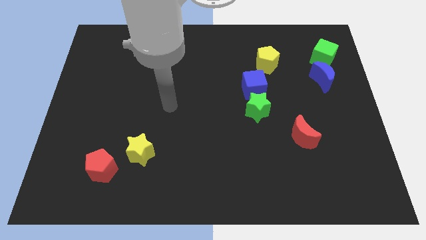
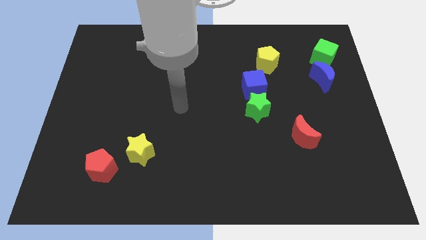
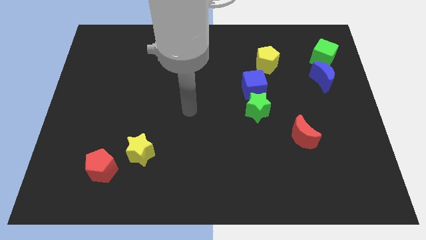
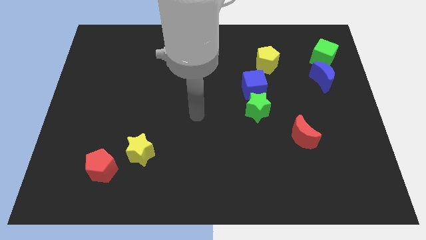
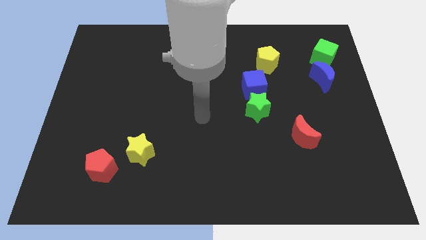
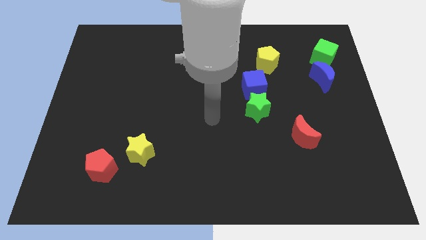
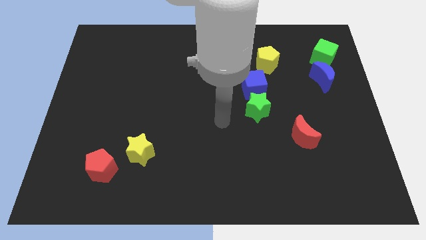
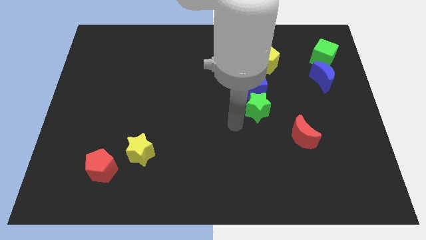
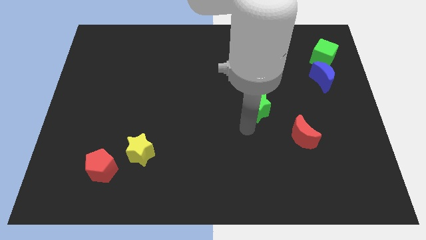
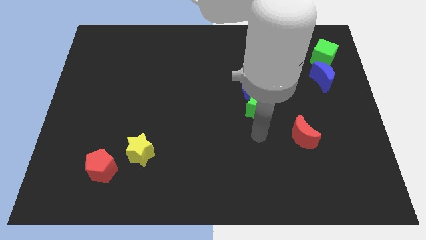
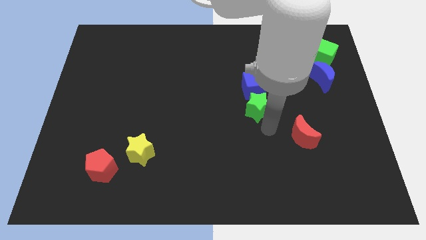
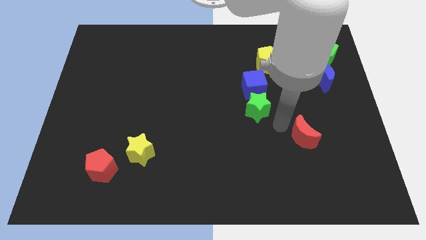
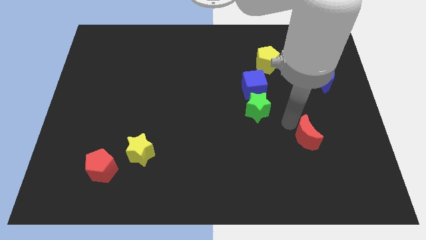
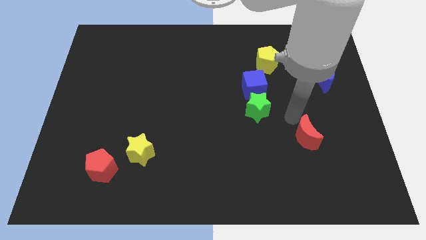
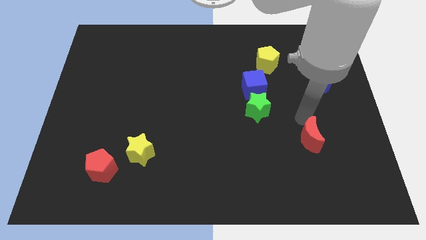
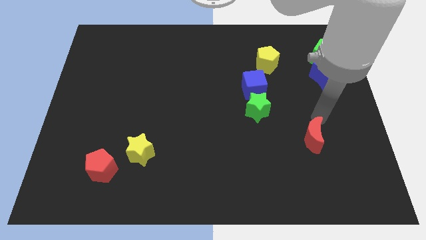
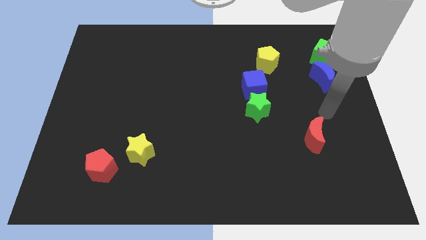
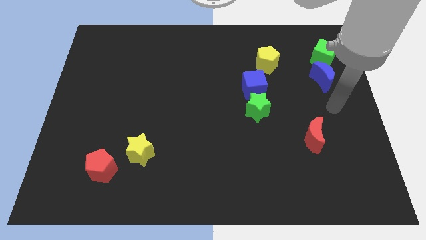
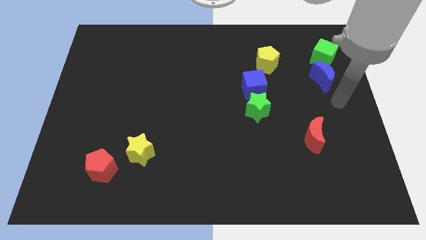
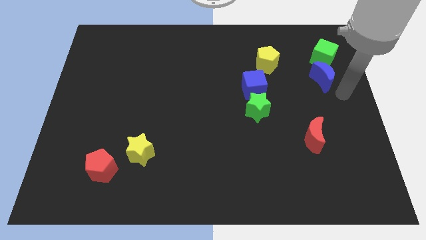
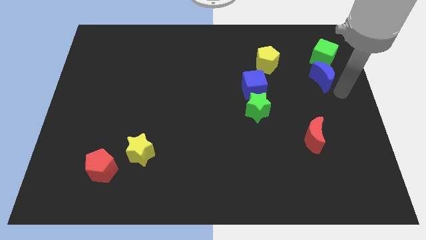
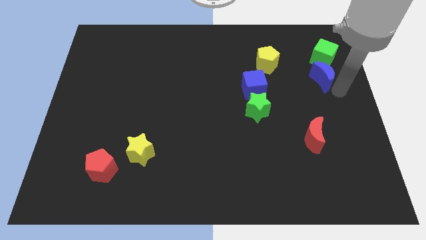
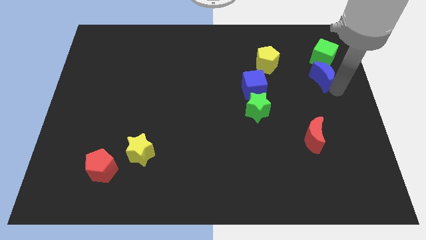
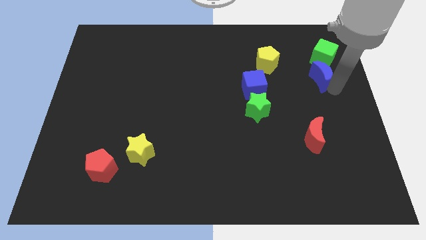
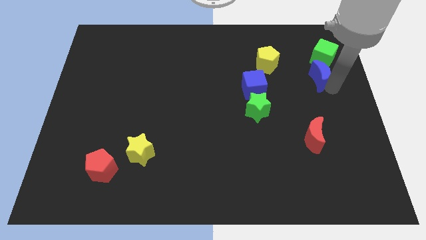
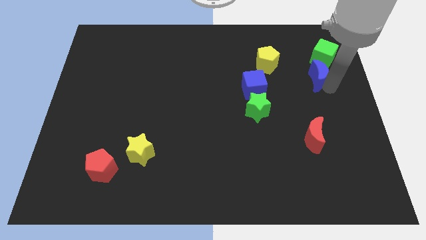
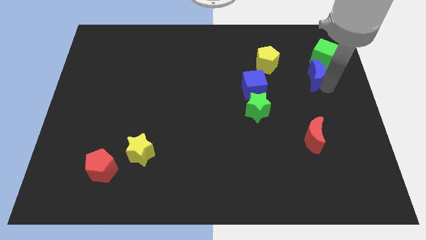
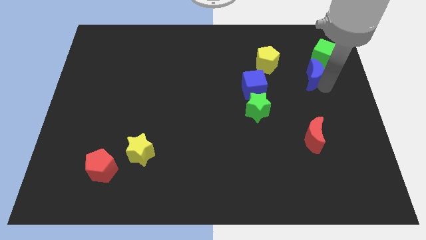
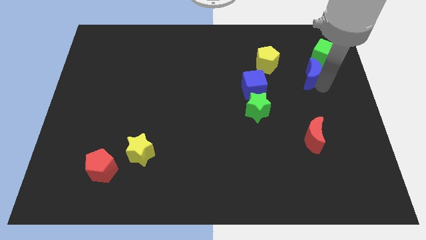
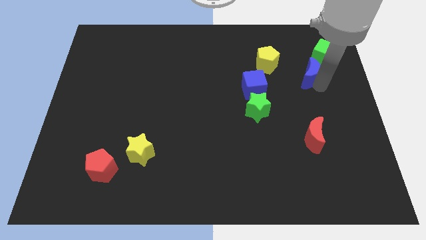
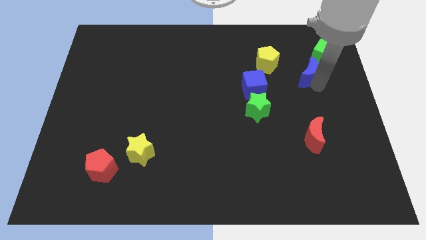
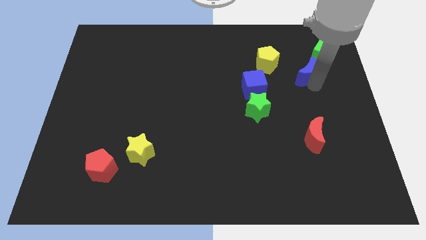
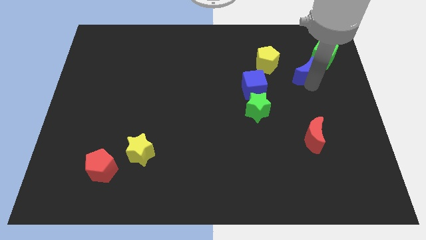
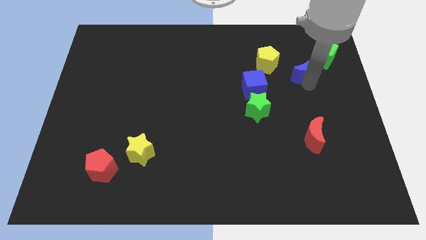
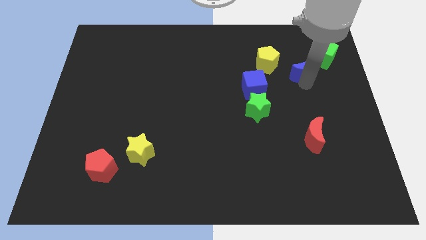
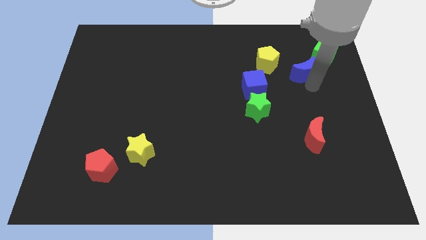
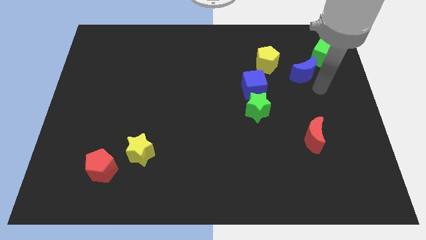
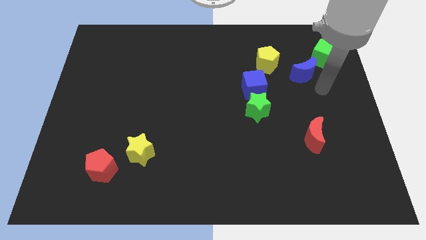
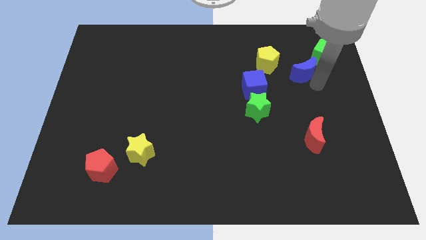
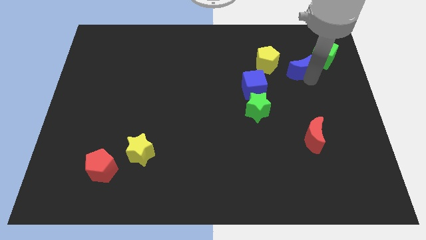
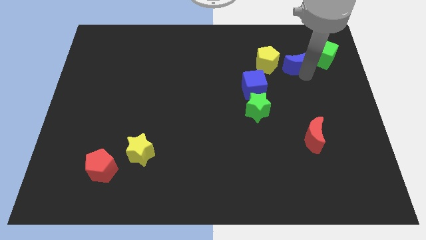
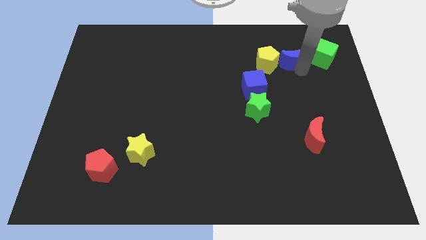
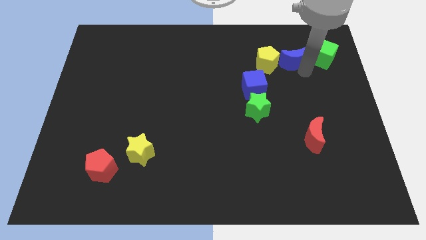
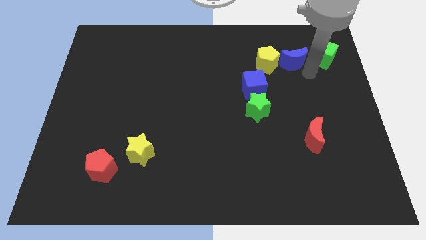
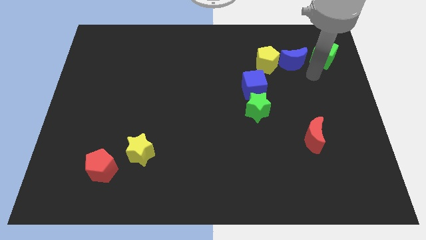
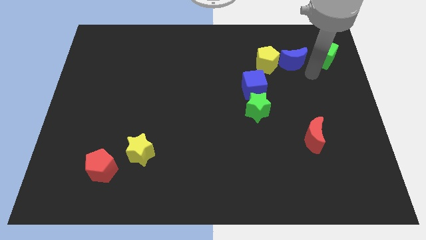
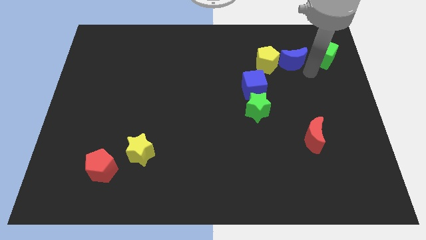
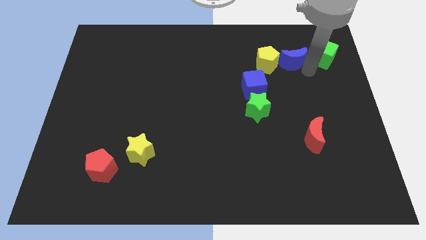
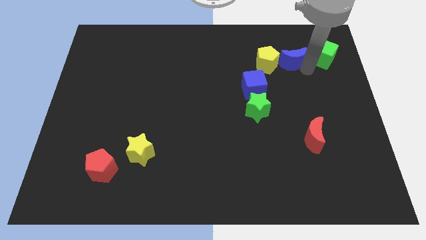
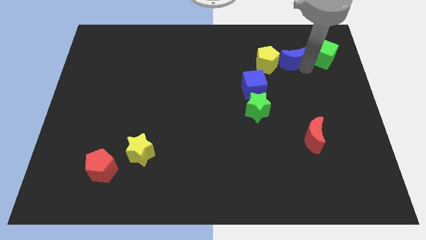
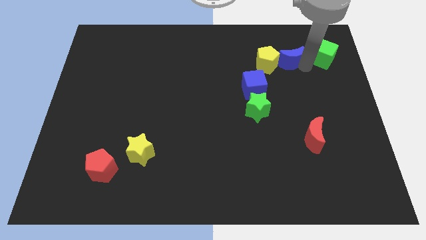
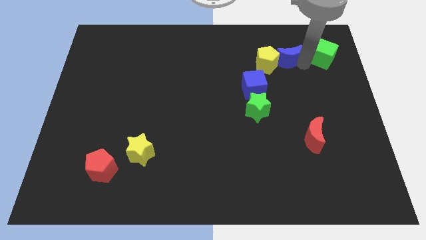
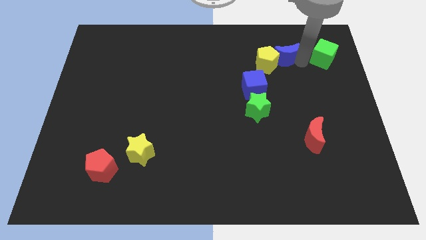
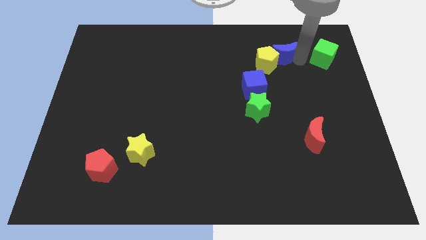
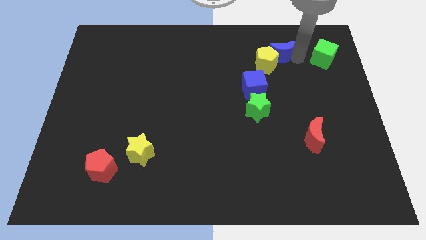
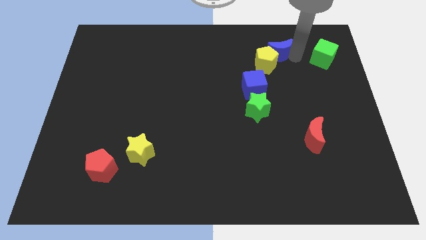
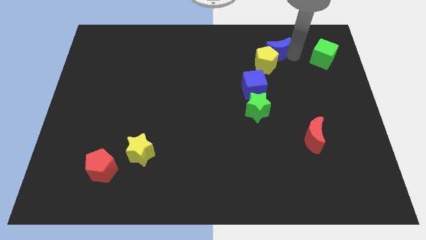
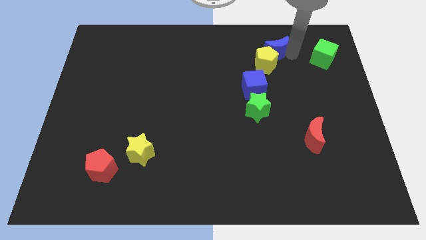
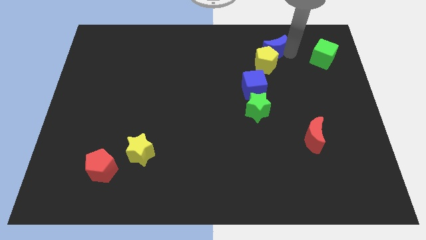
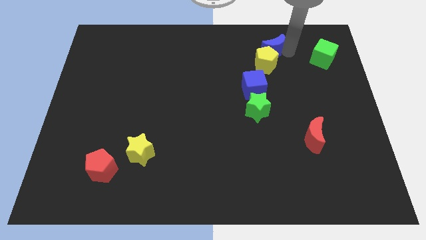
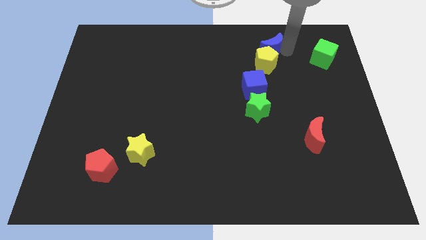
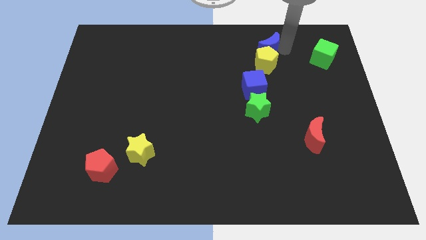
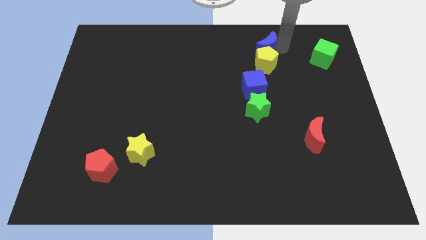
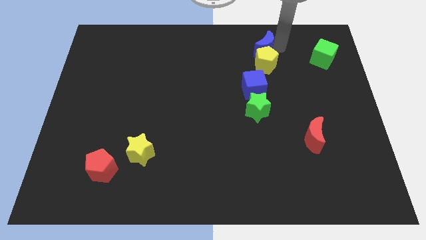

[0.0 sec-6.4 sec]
slide the blue moon to the top of the blue cube

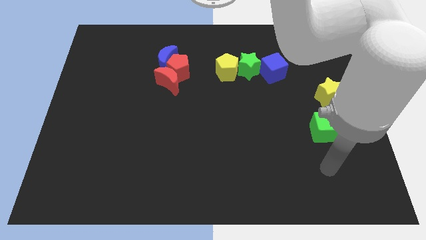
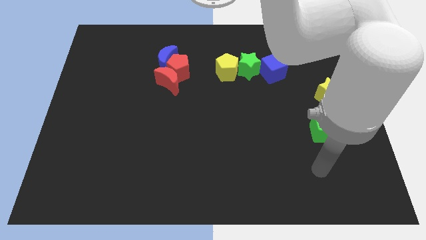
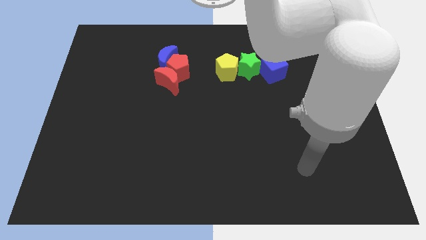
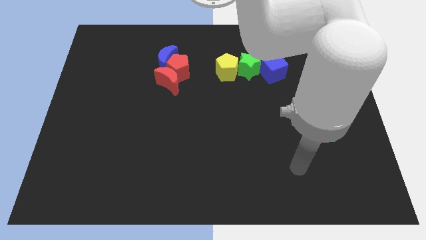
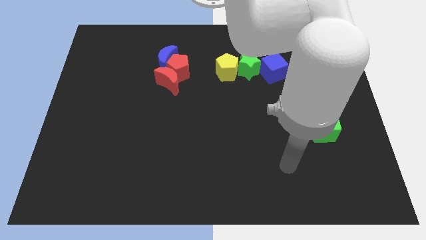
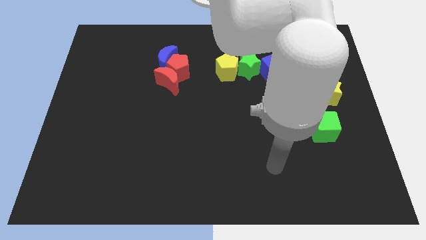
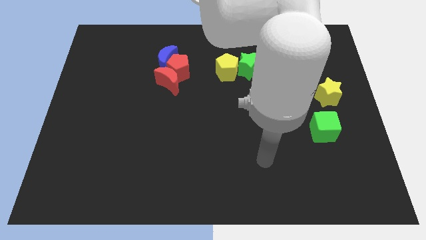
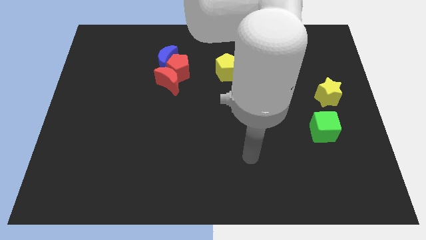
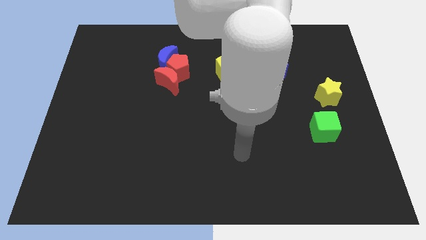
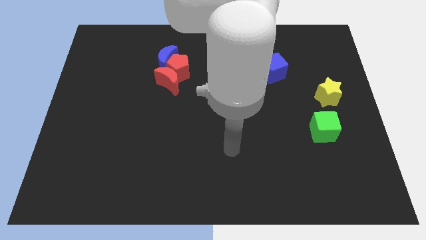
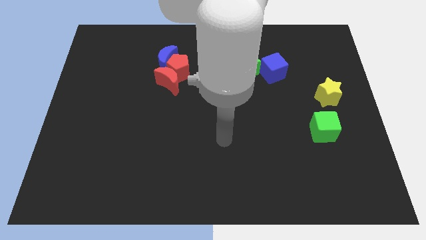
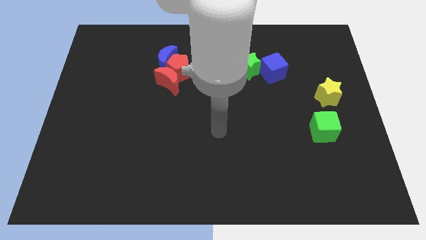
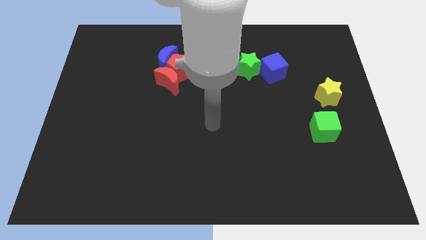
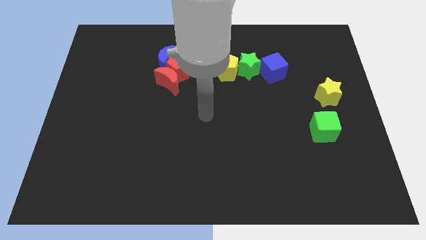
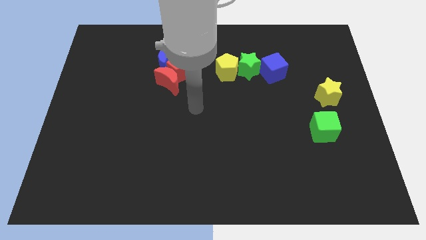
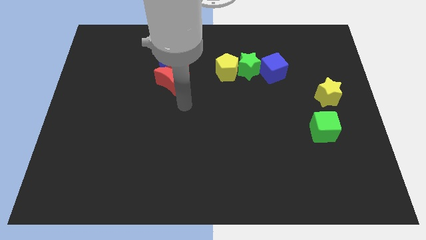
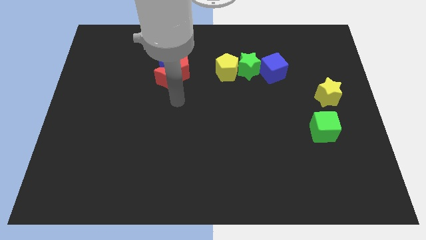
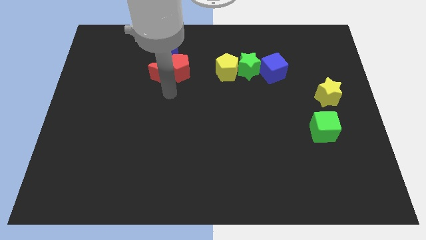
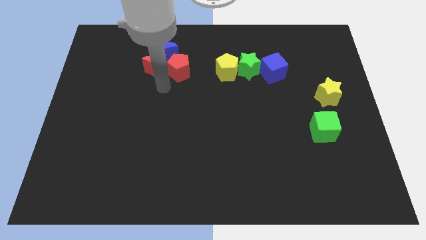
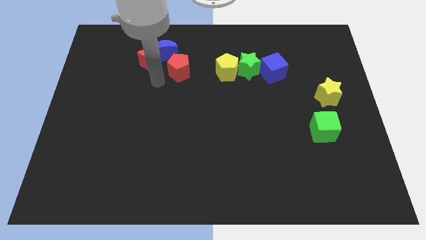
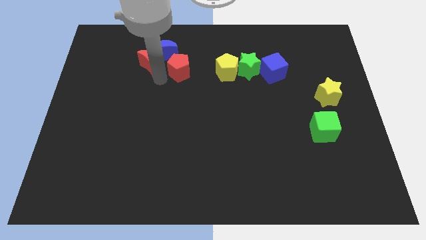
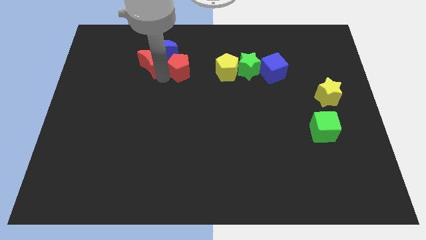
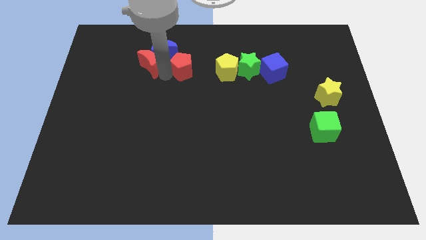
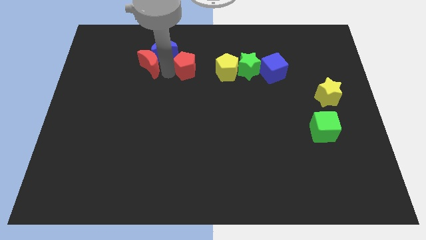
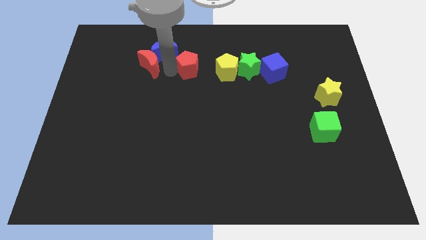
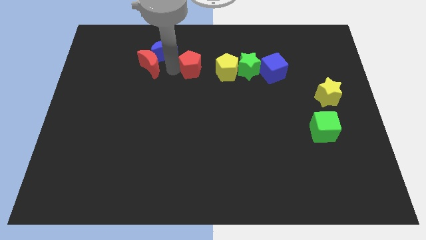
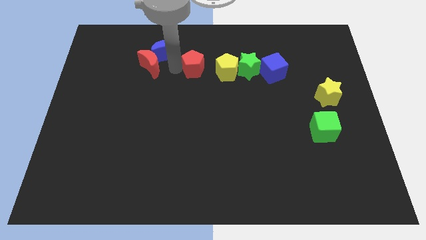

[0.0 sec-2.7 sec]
push the red pentagon to the top left of the yellow pentagon
